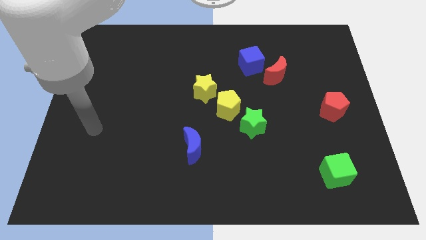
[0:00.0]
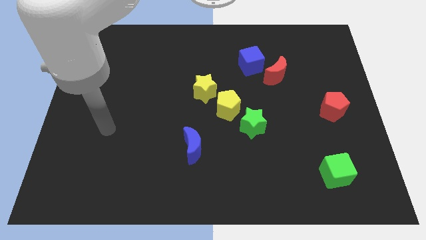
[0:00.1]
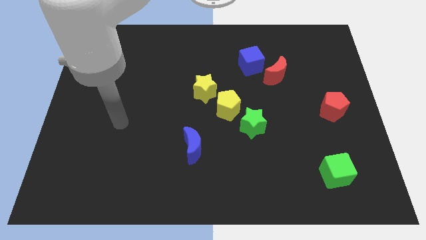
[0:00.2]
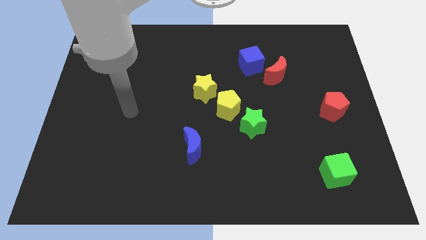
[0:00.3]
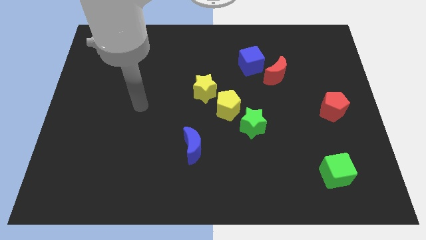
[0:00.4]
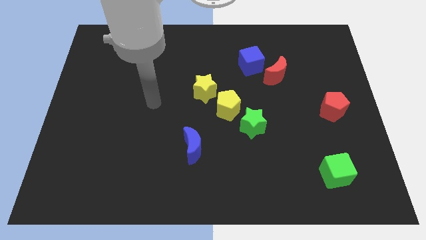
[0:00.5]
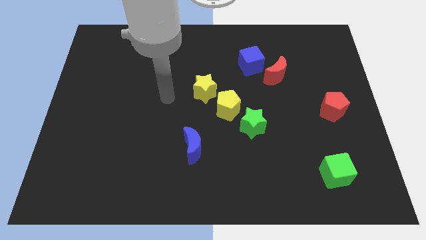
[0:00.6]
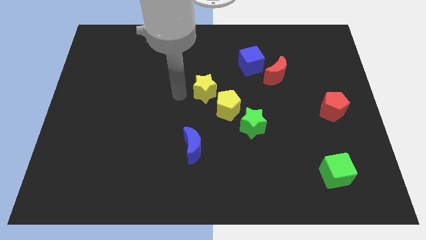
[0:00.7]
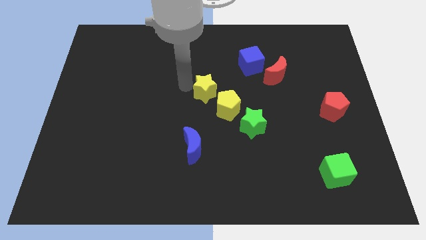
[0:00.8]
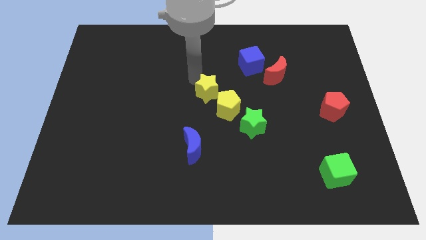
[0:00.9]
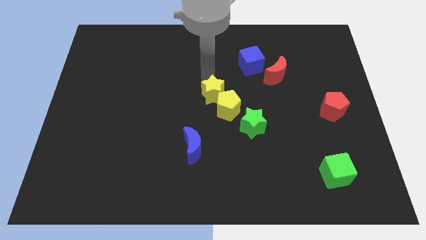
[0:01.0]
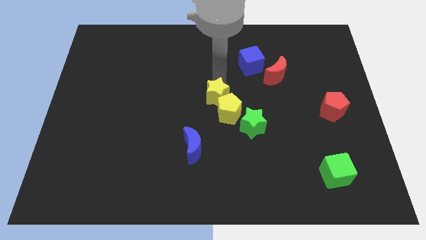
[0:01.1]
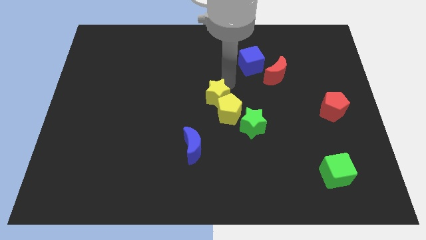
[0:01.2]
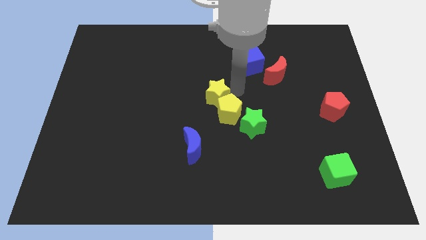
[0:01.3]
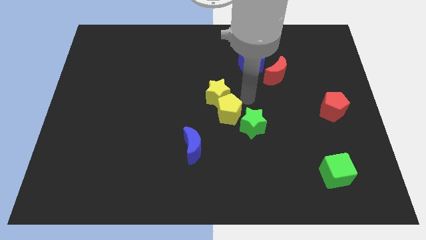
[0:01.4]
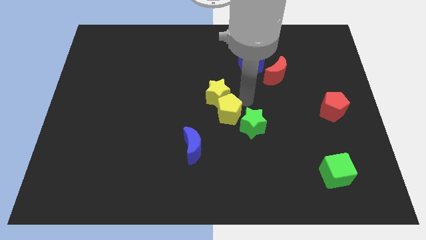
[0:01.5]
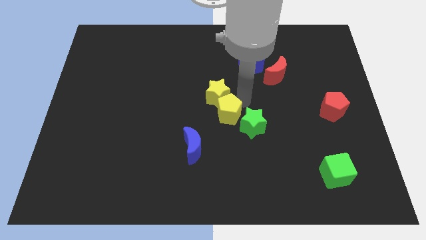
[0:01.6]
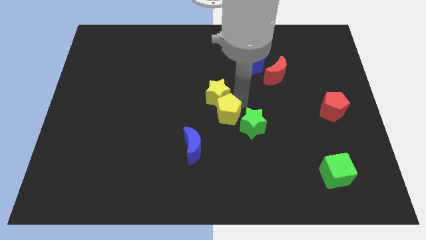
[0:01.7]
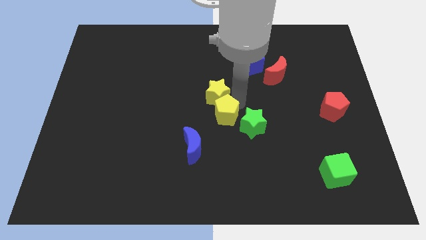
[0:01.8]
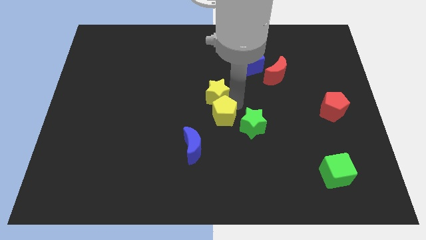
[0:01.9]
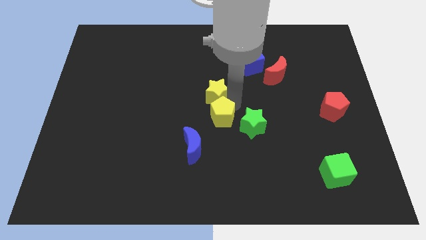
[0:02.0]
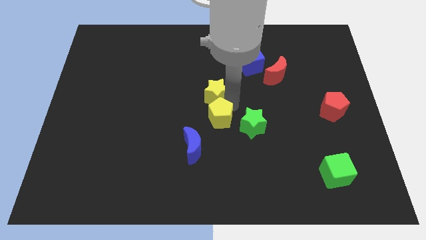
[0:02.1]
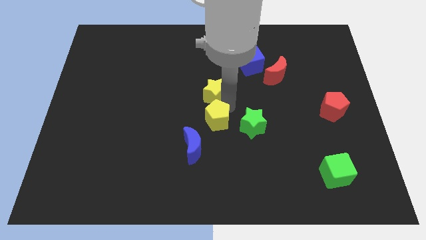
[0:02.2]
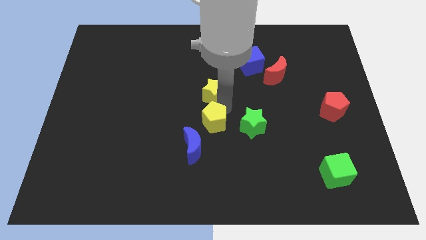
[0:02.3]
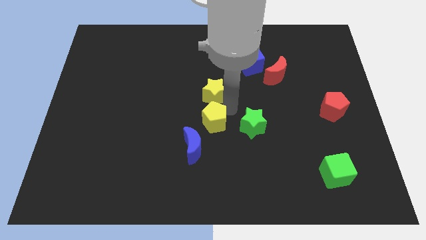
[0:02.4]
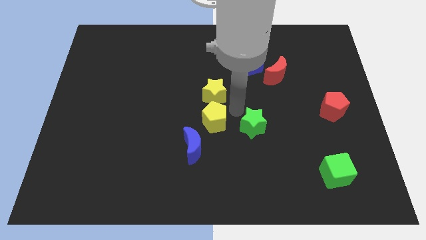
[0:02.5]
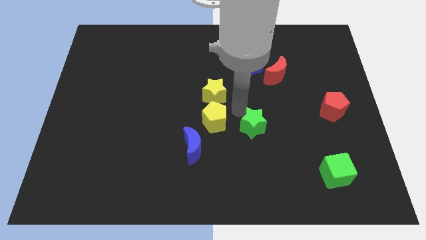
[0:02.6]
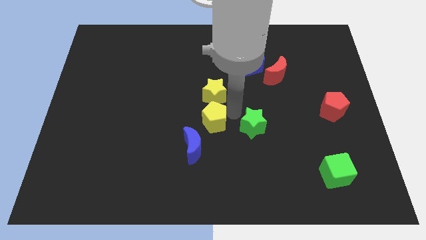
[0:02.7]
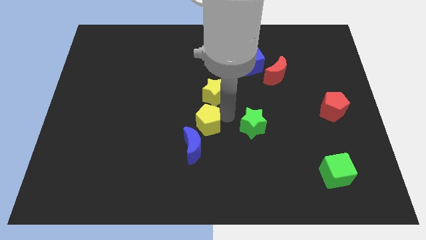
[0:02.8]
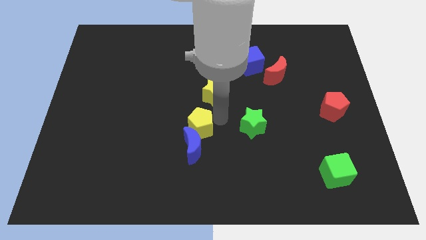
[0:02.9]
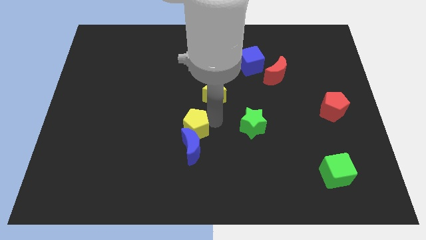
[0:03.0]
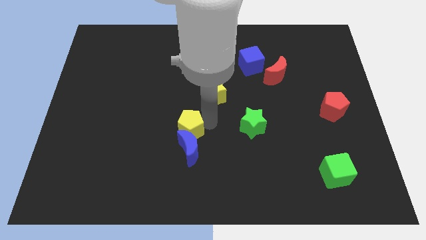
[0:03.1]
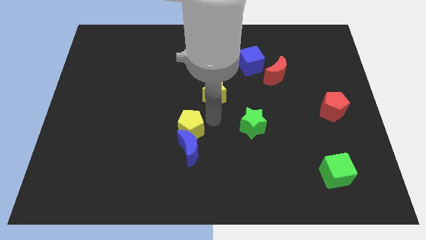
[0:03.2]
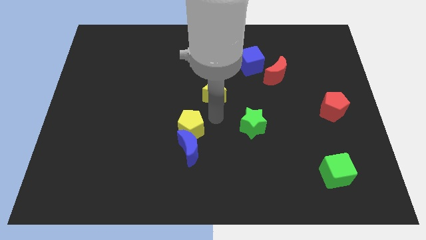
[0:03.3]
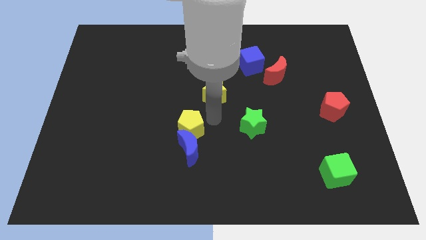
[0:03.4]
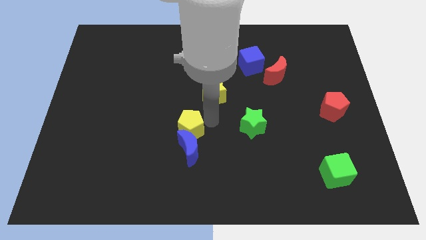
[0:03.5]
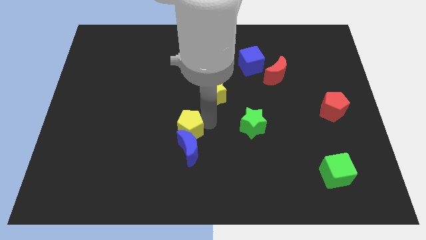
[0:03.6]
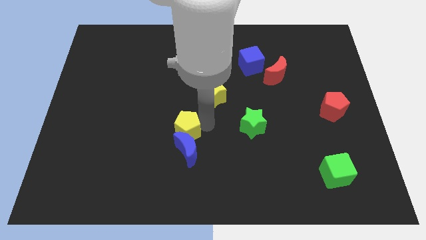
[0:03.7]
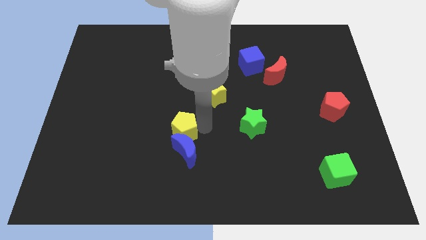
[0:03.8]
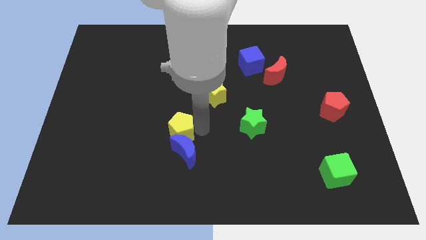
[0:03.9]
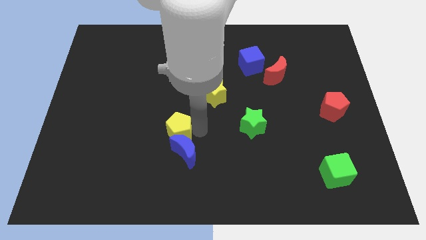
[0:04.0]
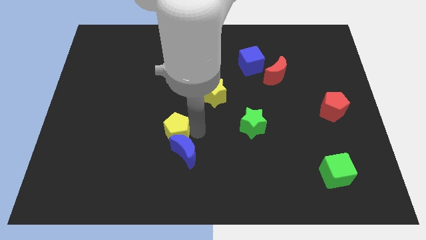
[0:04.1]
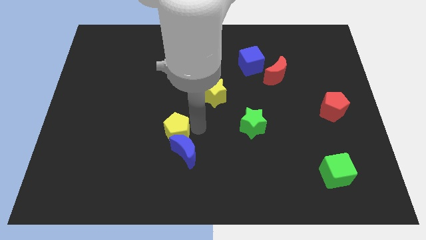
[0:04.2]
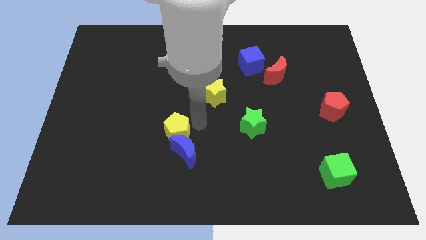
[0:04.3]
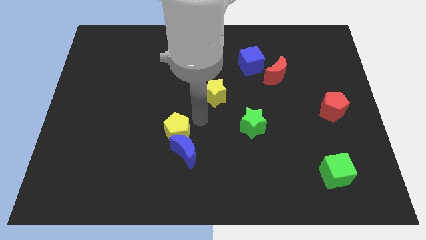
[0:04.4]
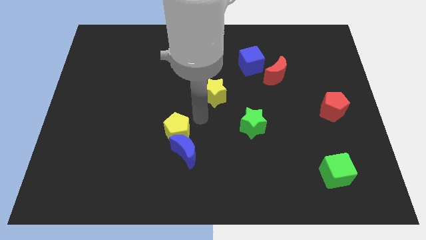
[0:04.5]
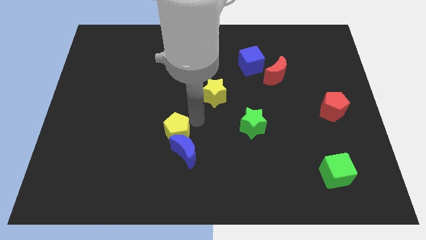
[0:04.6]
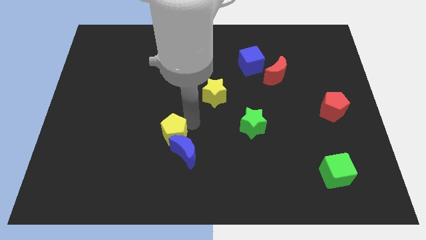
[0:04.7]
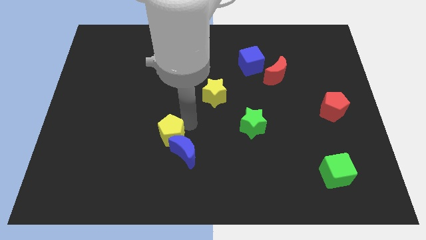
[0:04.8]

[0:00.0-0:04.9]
put the yellow pentagon to the left side of the blue moon

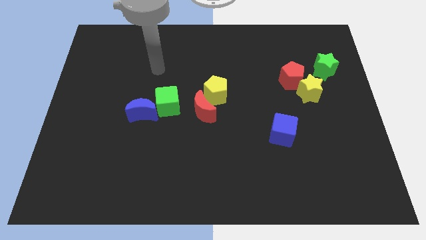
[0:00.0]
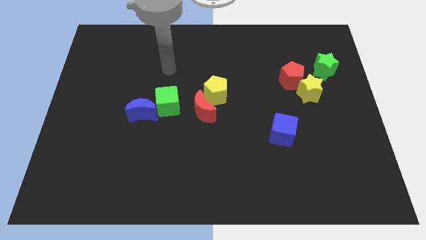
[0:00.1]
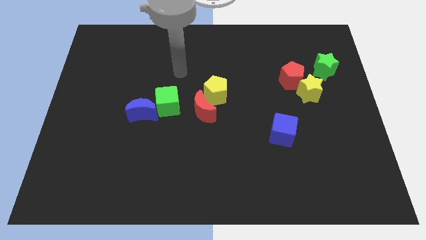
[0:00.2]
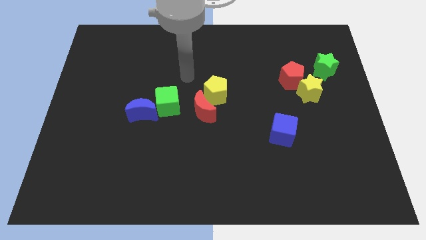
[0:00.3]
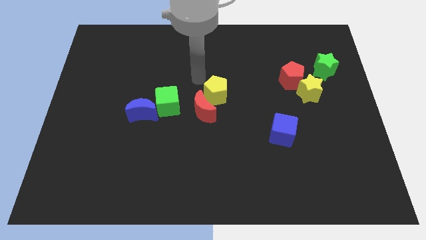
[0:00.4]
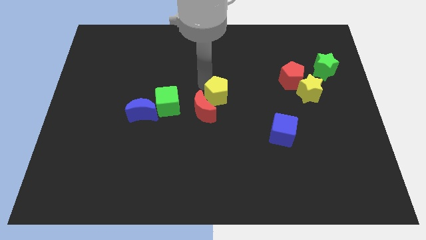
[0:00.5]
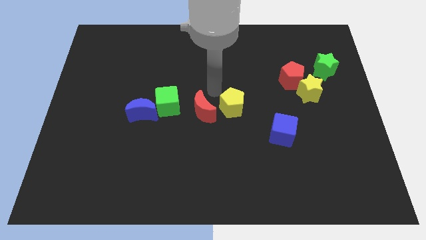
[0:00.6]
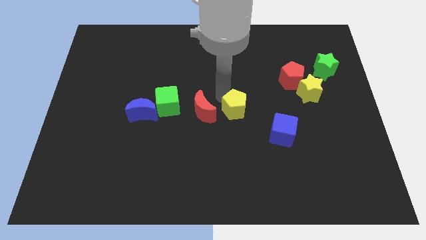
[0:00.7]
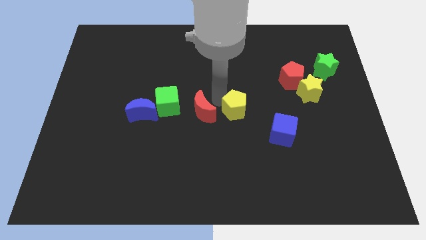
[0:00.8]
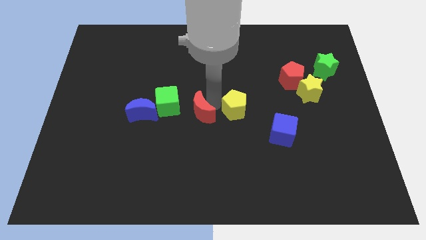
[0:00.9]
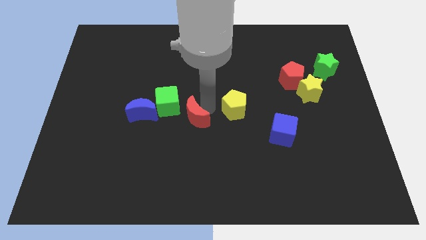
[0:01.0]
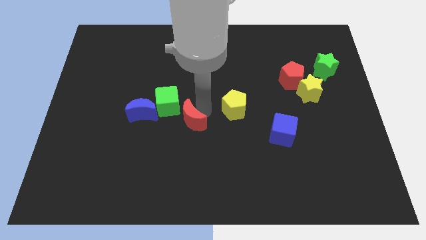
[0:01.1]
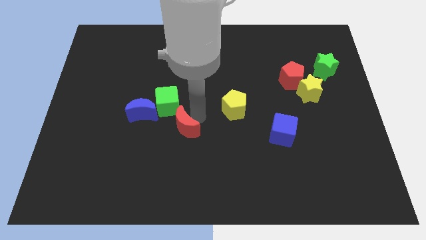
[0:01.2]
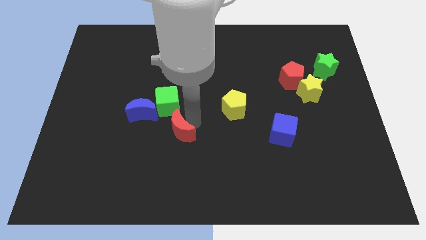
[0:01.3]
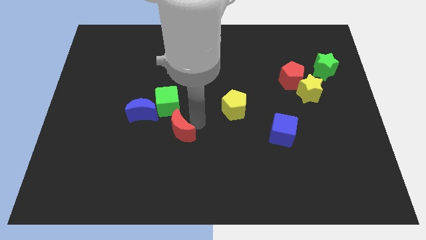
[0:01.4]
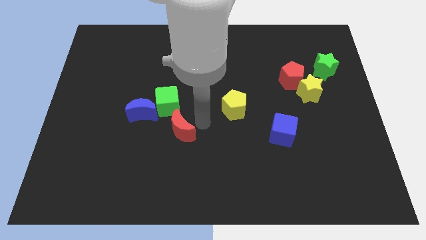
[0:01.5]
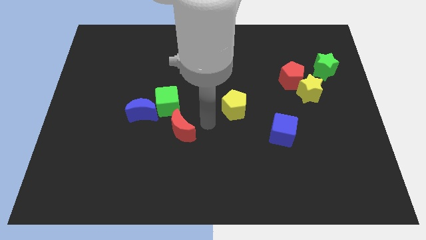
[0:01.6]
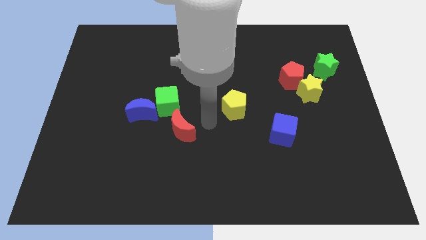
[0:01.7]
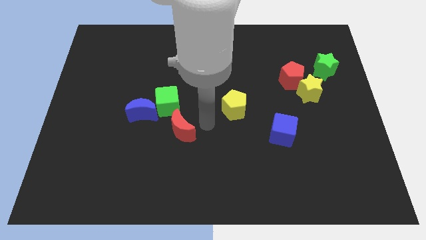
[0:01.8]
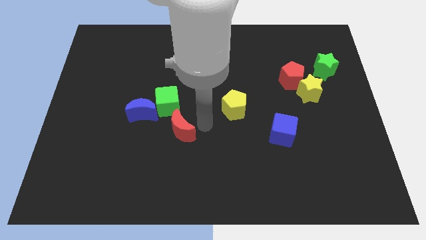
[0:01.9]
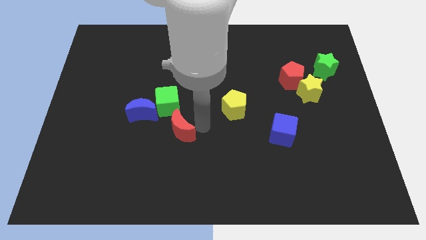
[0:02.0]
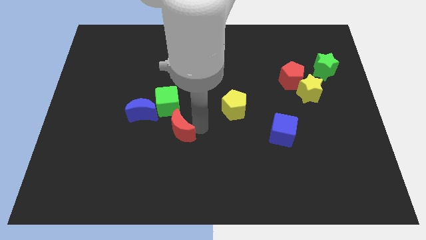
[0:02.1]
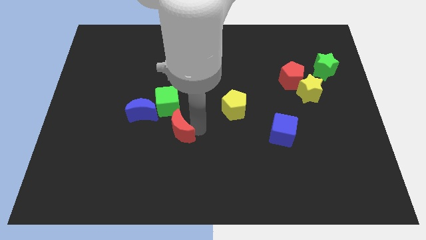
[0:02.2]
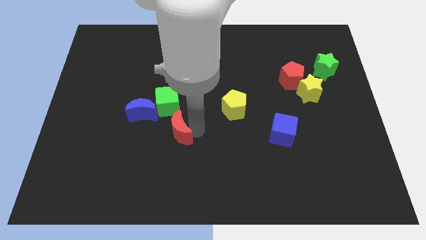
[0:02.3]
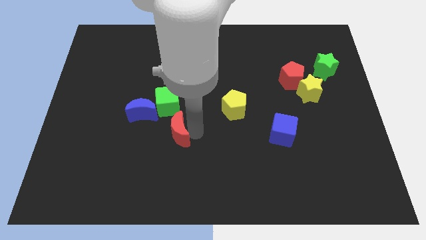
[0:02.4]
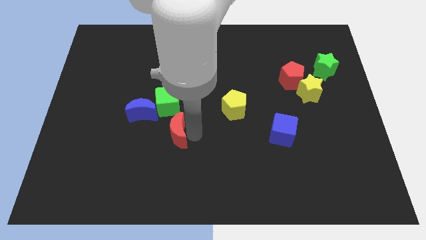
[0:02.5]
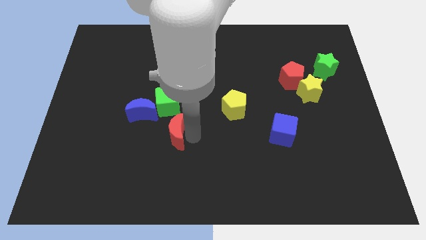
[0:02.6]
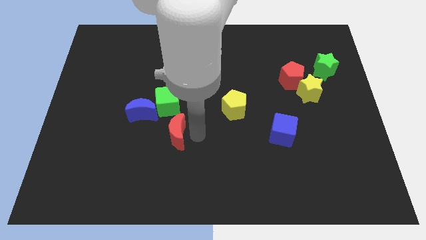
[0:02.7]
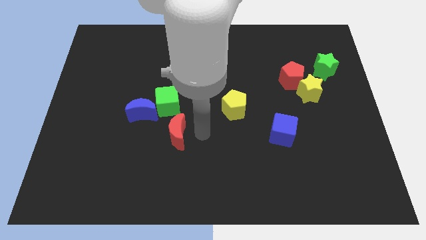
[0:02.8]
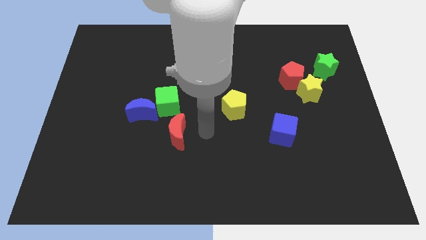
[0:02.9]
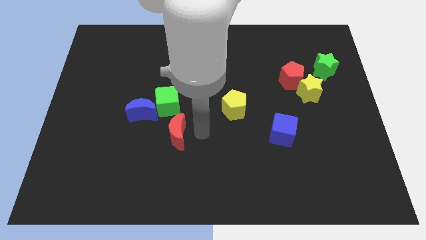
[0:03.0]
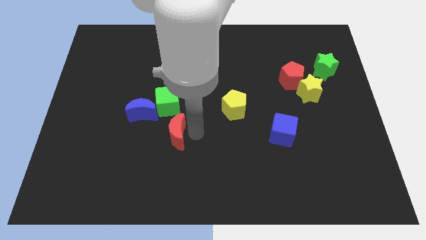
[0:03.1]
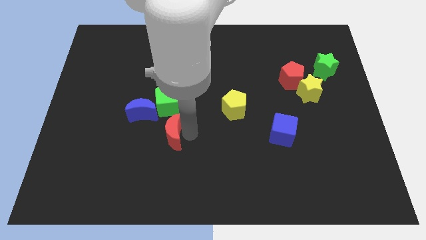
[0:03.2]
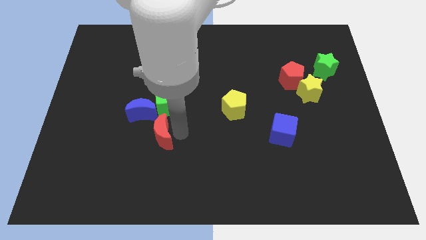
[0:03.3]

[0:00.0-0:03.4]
slide the red moon to the bottom side of the blue moon
